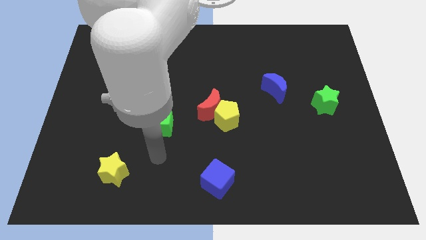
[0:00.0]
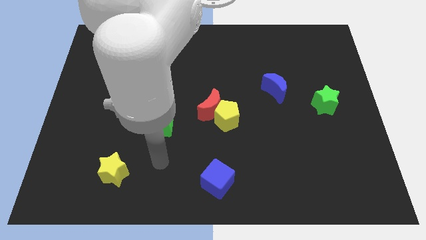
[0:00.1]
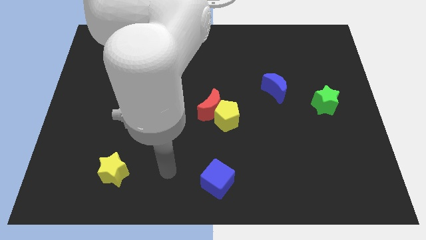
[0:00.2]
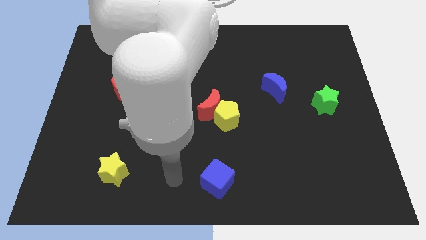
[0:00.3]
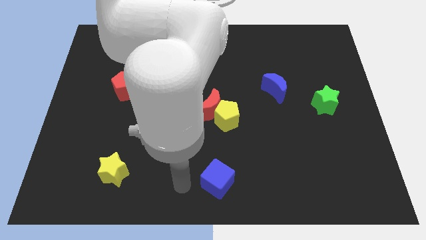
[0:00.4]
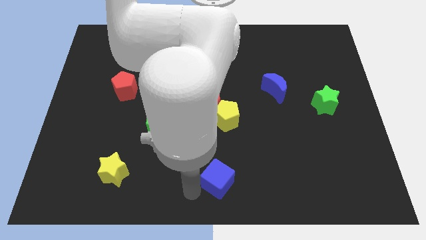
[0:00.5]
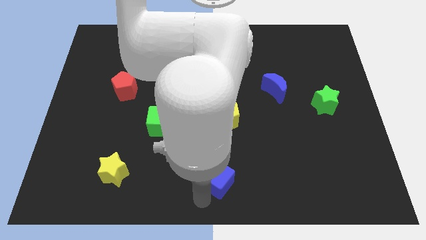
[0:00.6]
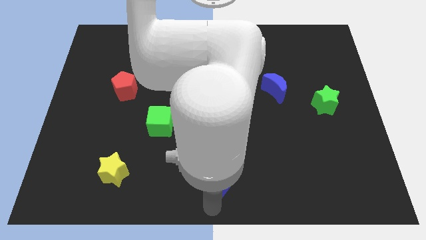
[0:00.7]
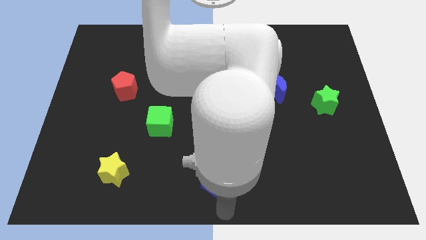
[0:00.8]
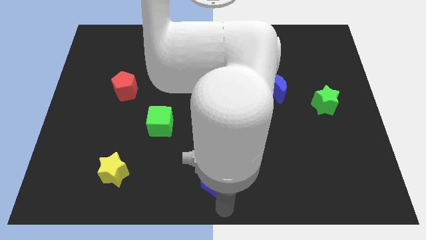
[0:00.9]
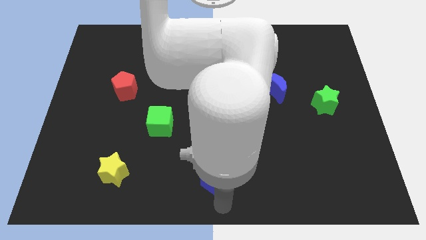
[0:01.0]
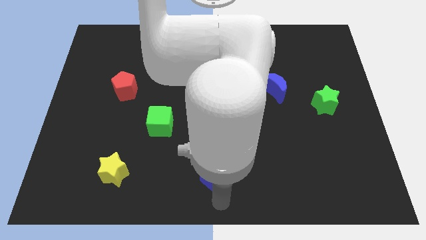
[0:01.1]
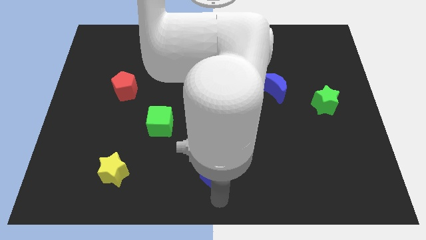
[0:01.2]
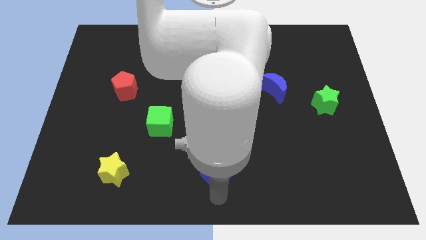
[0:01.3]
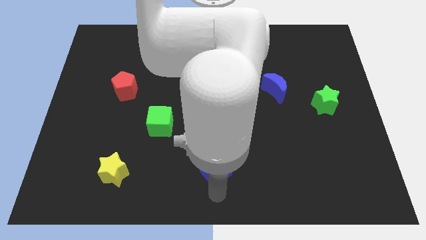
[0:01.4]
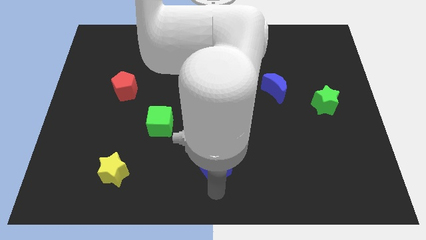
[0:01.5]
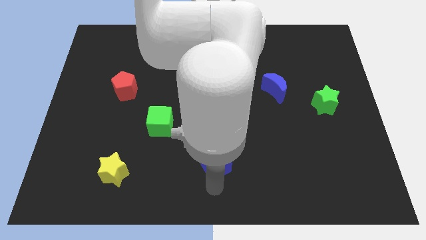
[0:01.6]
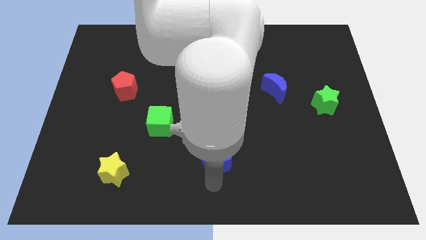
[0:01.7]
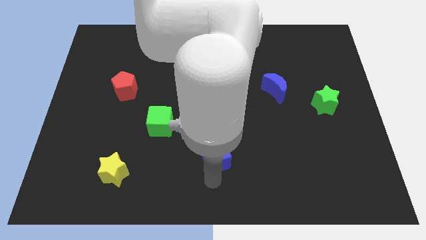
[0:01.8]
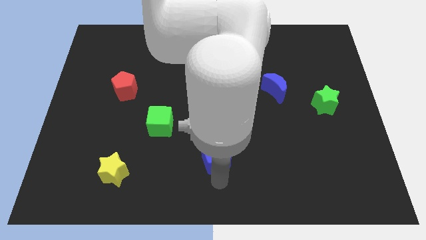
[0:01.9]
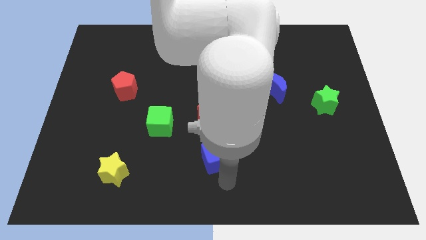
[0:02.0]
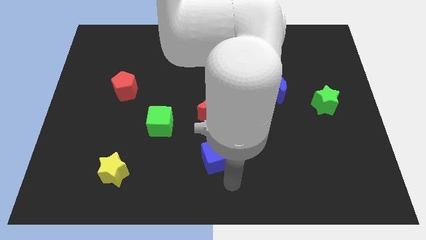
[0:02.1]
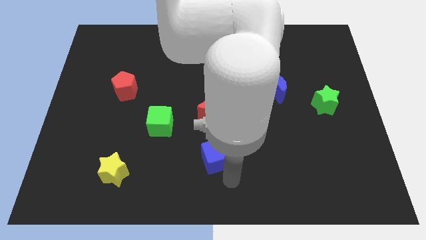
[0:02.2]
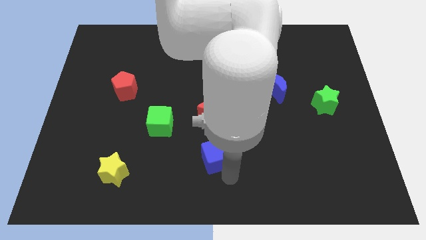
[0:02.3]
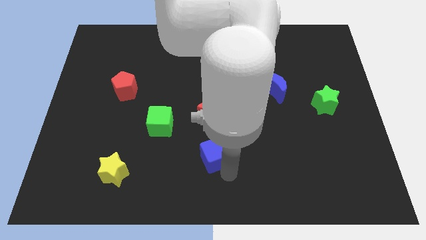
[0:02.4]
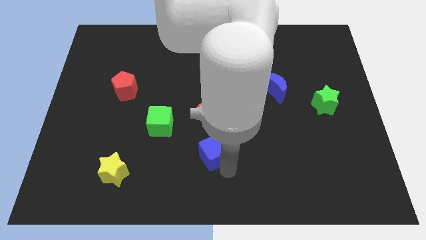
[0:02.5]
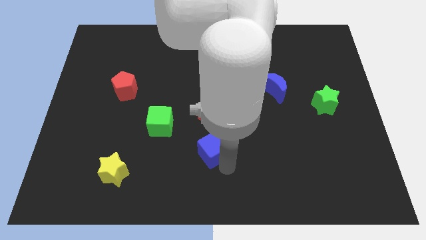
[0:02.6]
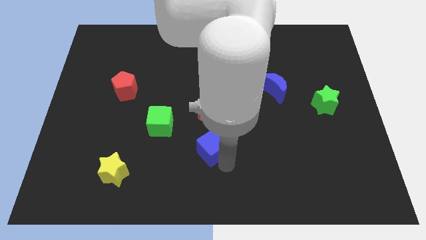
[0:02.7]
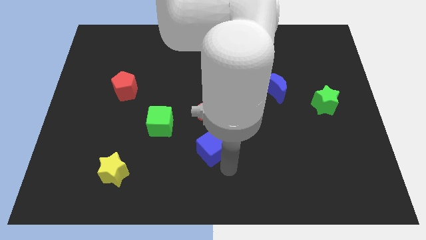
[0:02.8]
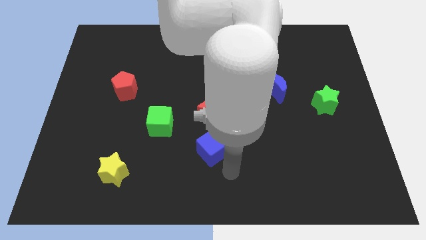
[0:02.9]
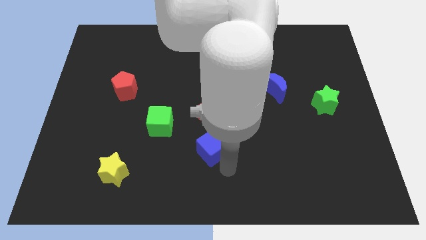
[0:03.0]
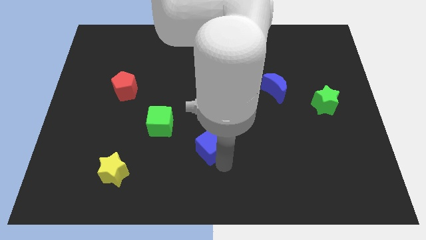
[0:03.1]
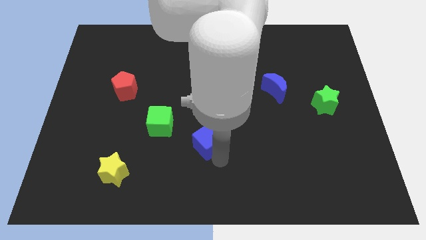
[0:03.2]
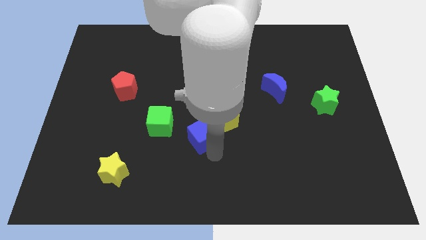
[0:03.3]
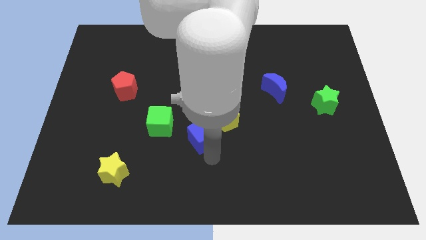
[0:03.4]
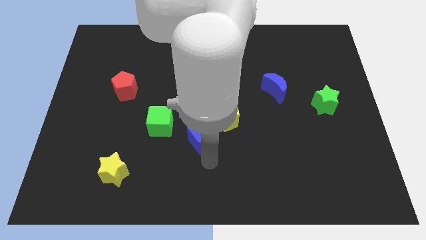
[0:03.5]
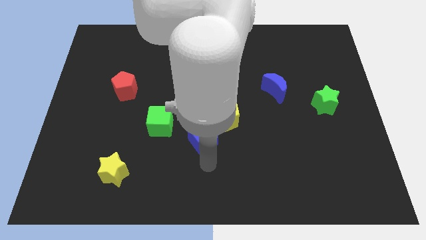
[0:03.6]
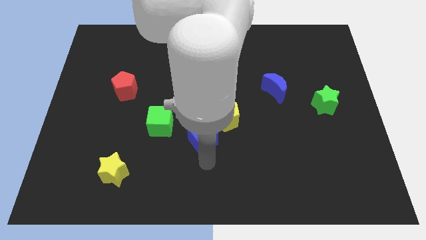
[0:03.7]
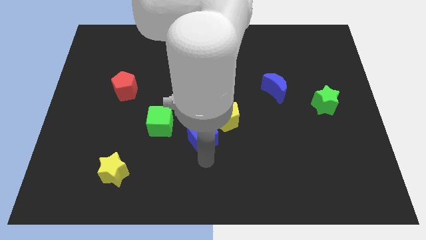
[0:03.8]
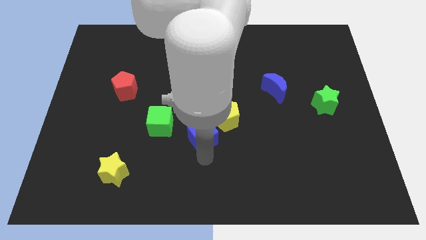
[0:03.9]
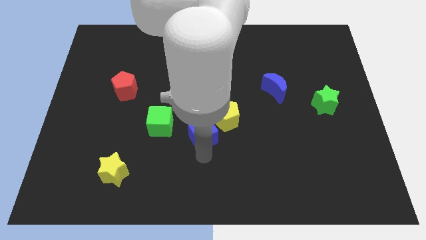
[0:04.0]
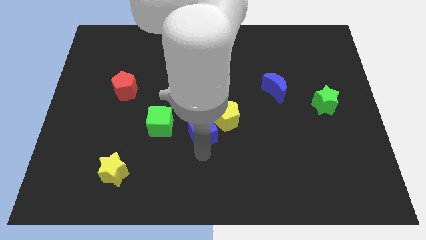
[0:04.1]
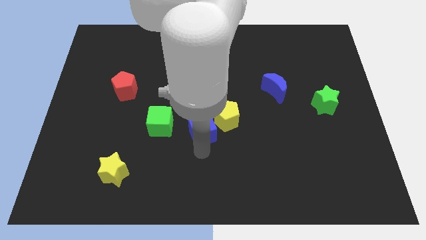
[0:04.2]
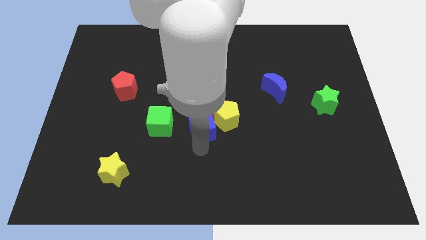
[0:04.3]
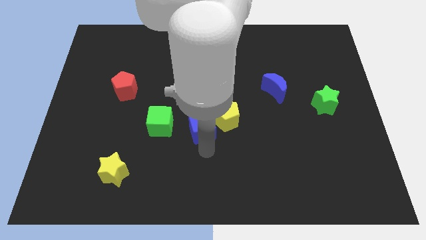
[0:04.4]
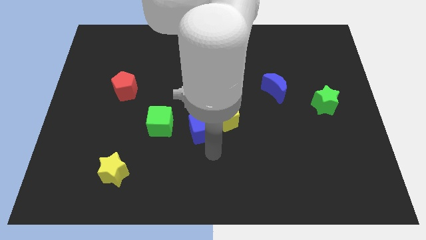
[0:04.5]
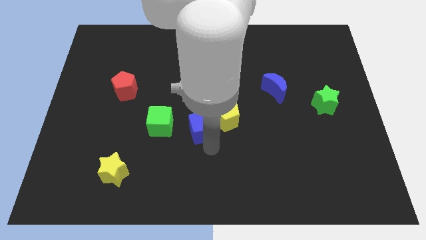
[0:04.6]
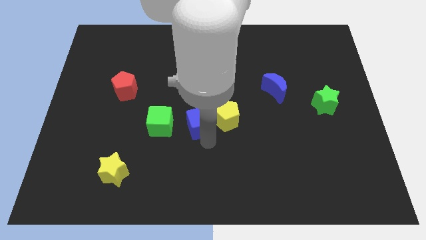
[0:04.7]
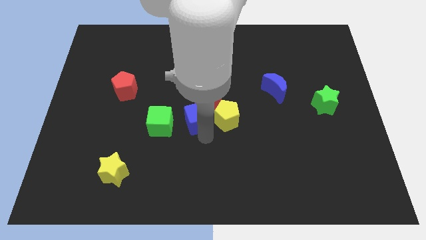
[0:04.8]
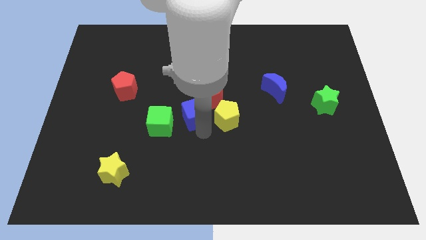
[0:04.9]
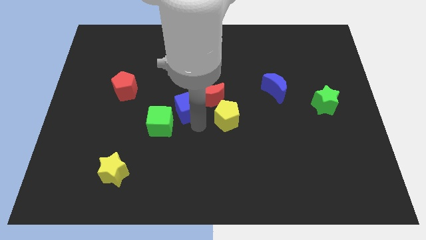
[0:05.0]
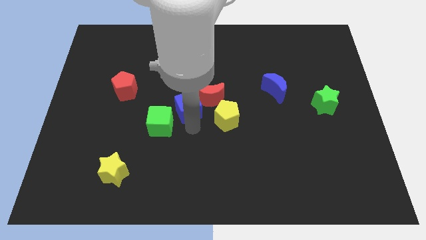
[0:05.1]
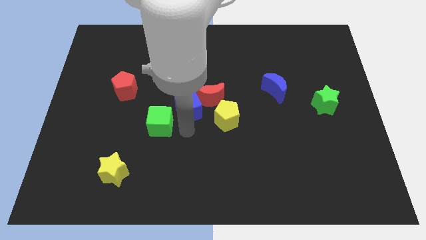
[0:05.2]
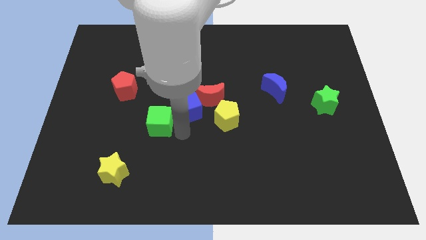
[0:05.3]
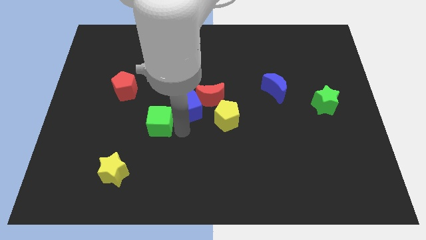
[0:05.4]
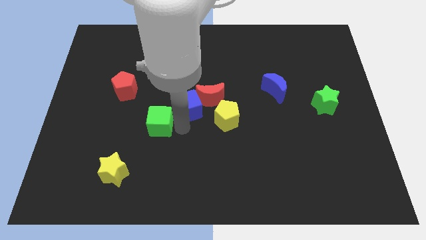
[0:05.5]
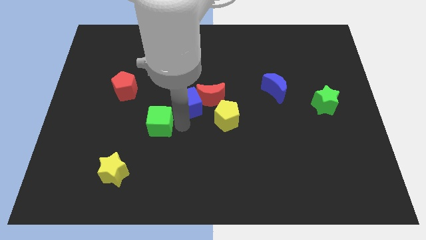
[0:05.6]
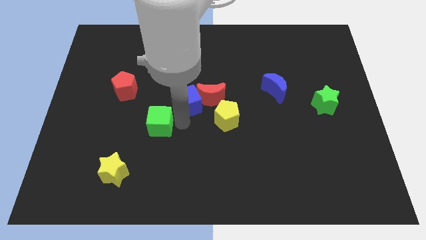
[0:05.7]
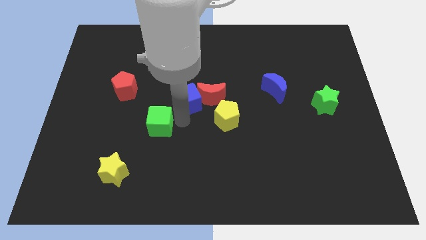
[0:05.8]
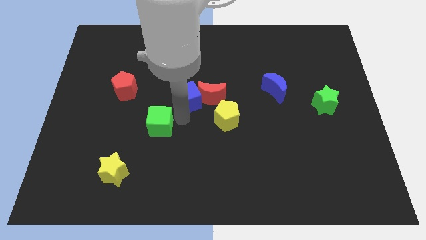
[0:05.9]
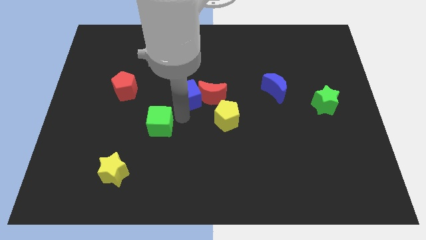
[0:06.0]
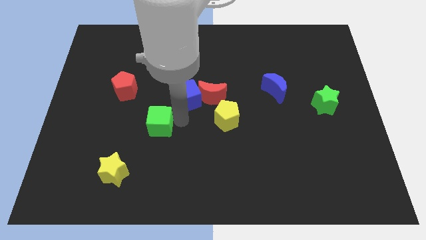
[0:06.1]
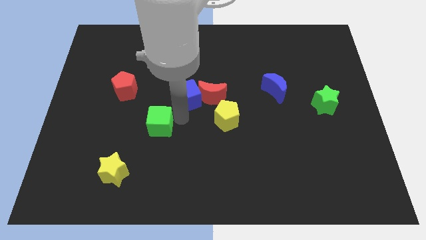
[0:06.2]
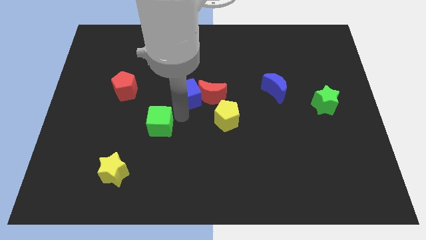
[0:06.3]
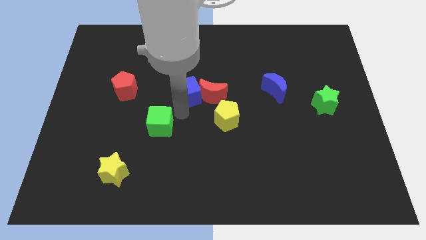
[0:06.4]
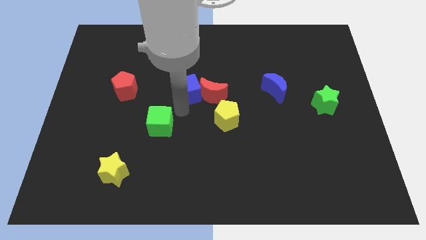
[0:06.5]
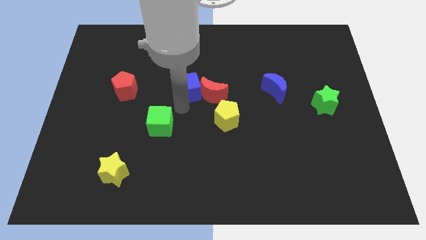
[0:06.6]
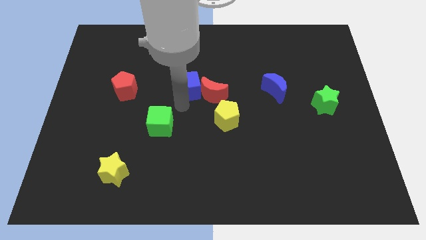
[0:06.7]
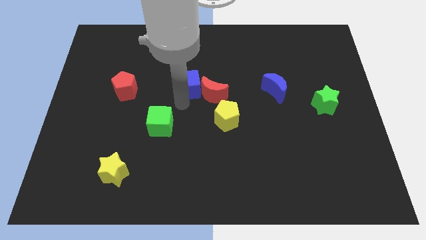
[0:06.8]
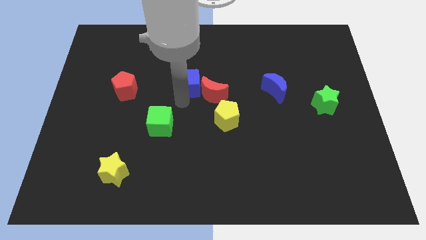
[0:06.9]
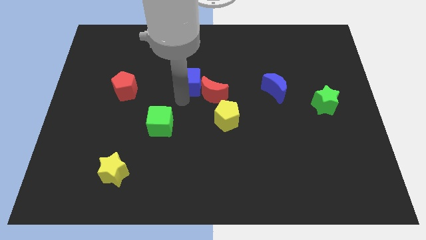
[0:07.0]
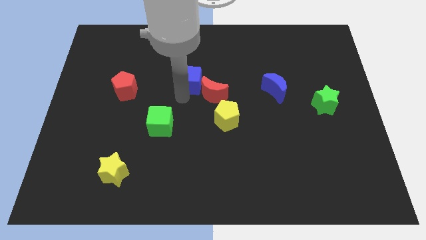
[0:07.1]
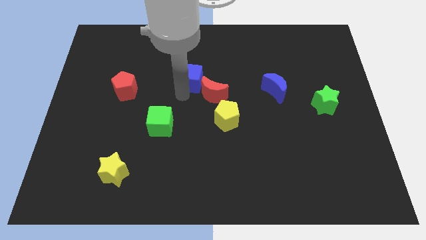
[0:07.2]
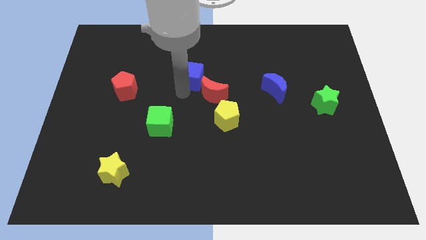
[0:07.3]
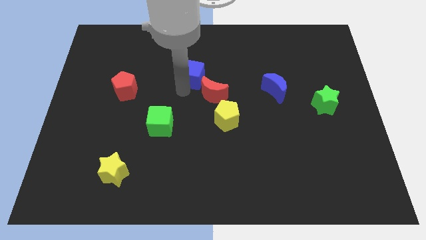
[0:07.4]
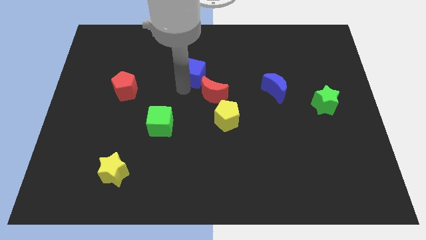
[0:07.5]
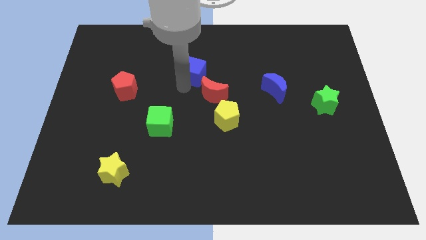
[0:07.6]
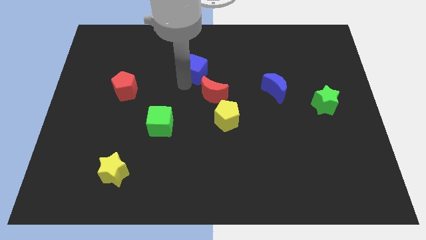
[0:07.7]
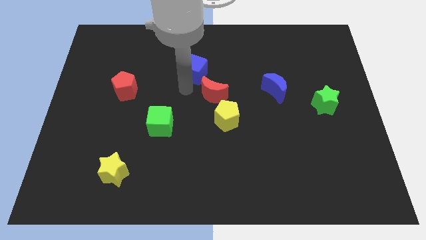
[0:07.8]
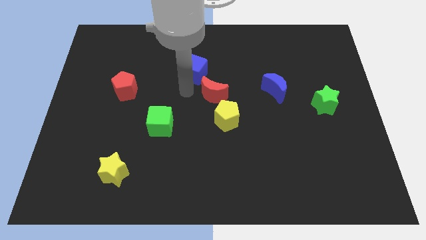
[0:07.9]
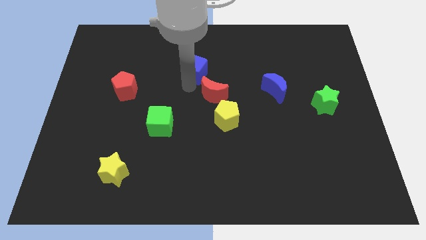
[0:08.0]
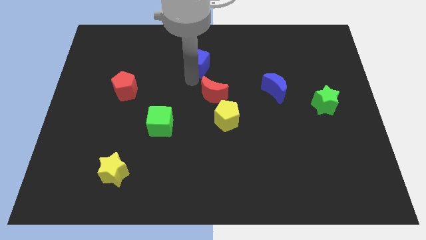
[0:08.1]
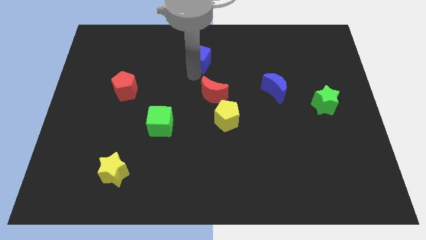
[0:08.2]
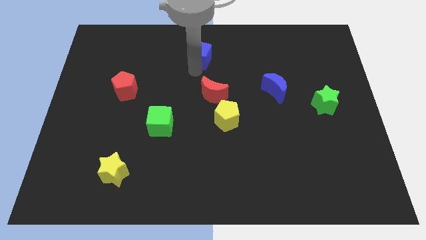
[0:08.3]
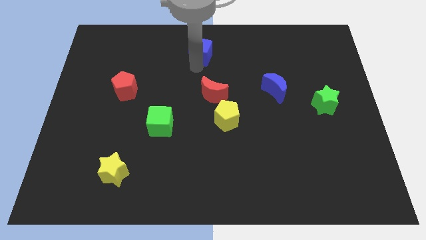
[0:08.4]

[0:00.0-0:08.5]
move the blue cube to the top side
